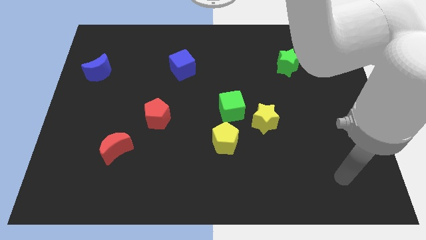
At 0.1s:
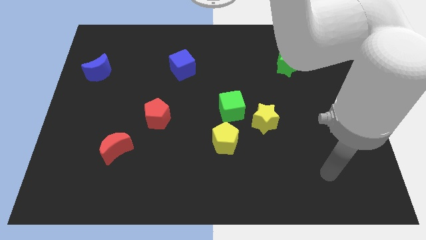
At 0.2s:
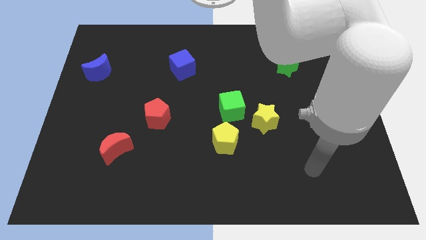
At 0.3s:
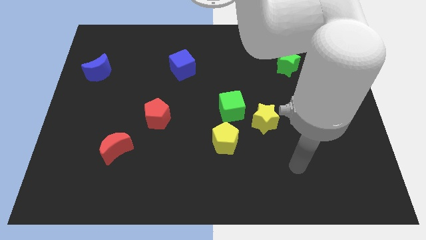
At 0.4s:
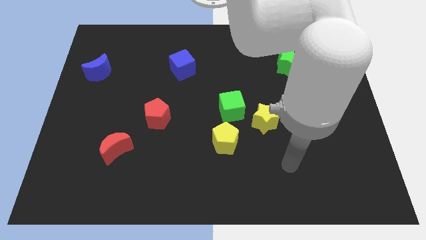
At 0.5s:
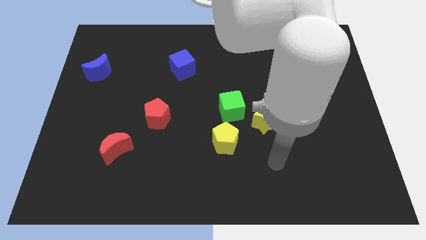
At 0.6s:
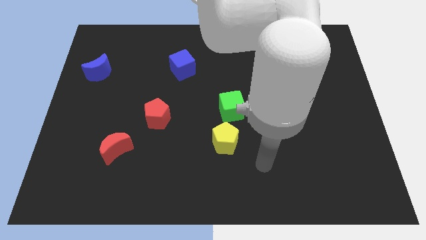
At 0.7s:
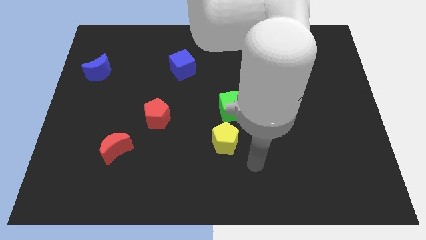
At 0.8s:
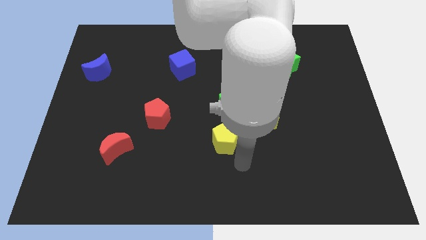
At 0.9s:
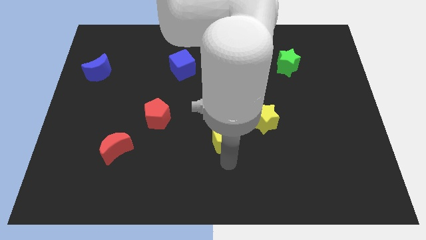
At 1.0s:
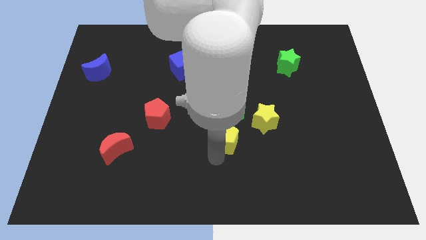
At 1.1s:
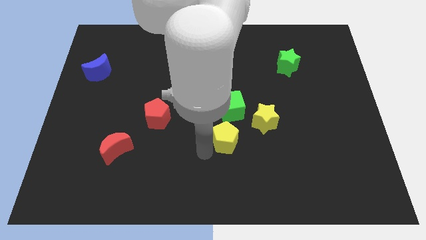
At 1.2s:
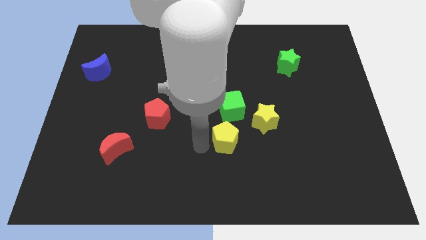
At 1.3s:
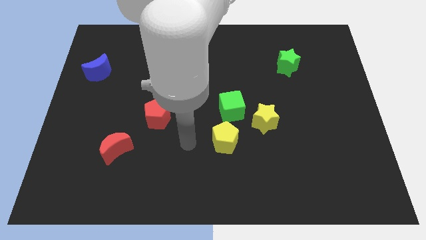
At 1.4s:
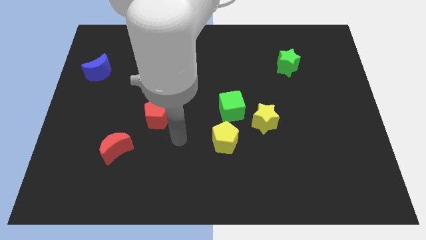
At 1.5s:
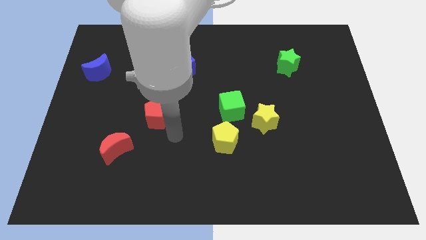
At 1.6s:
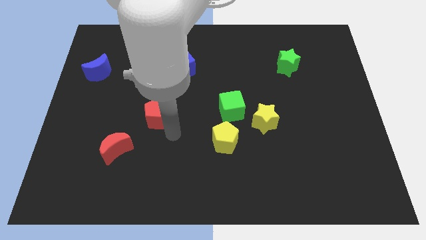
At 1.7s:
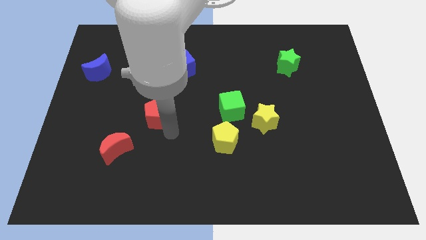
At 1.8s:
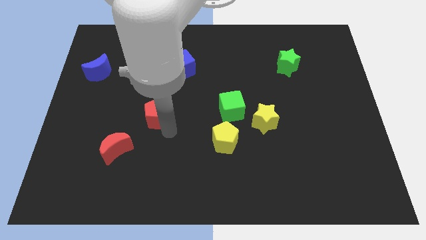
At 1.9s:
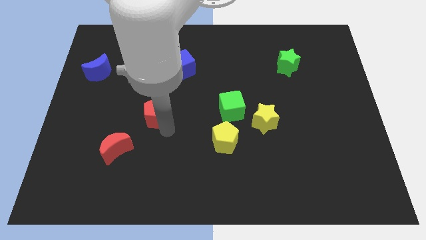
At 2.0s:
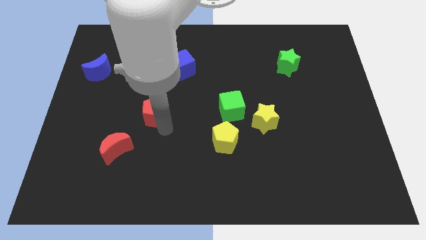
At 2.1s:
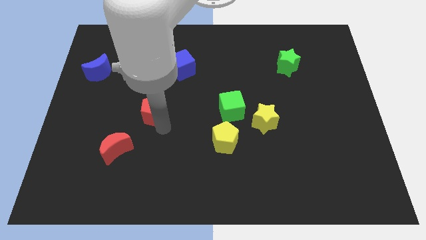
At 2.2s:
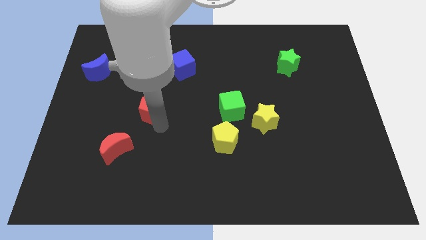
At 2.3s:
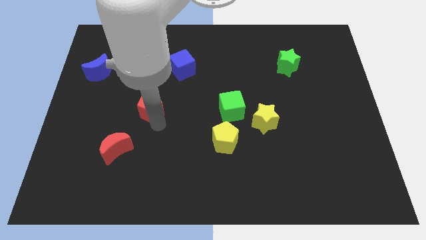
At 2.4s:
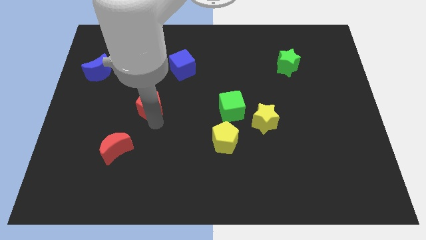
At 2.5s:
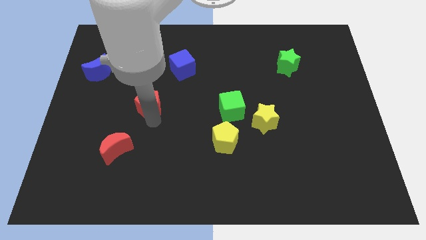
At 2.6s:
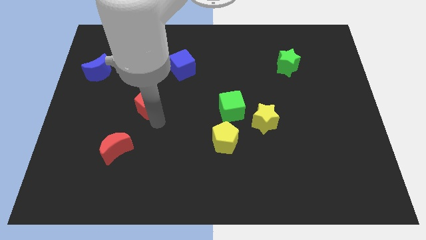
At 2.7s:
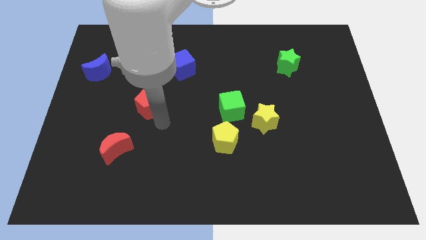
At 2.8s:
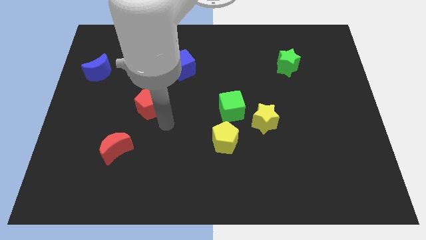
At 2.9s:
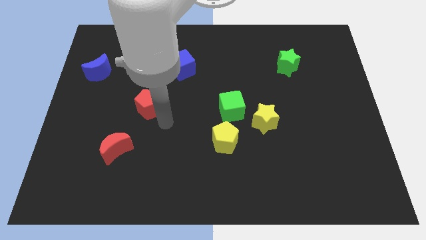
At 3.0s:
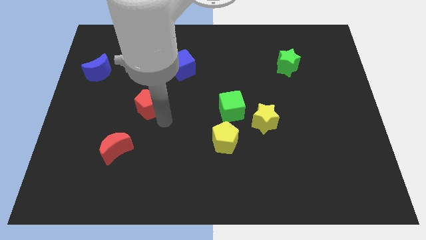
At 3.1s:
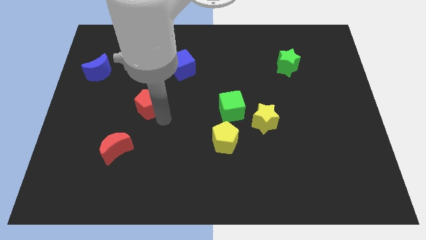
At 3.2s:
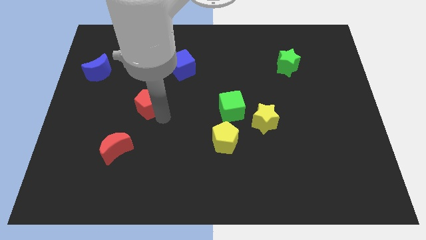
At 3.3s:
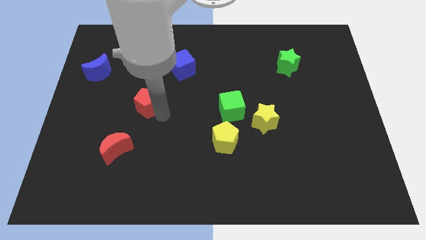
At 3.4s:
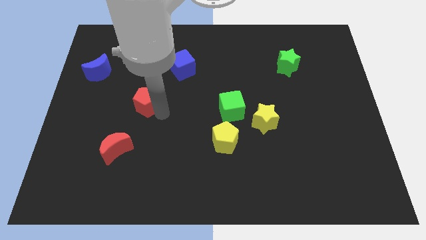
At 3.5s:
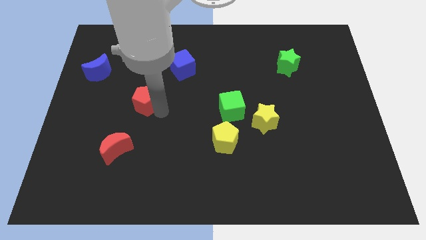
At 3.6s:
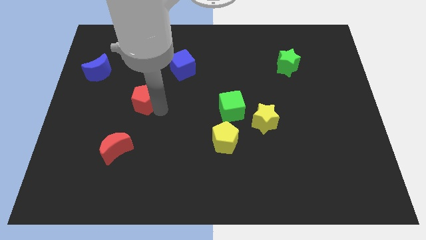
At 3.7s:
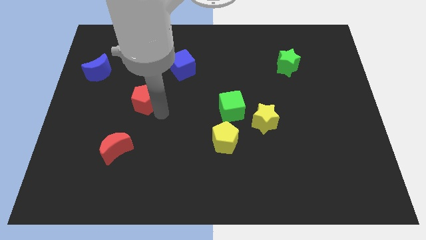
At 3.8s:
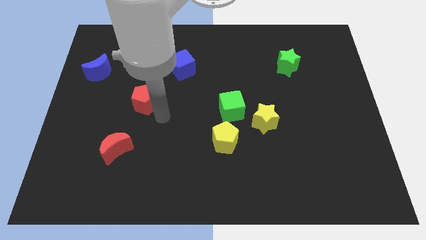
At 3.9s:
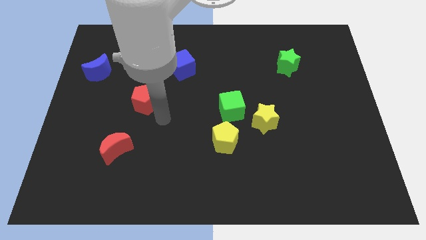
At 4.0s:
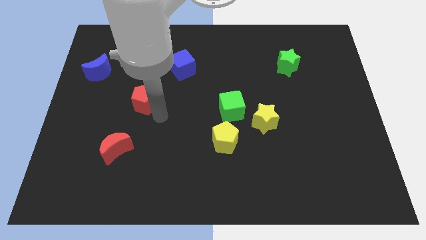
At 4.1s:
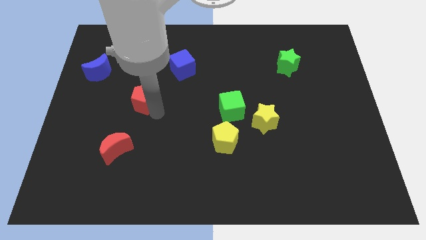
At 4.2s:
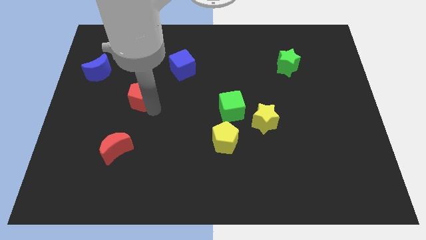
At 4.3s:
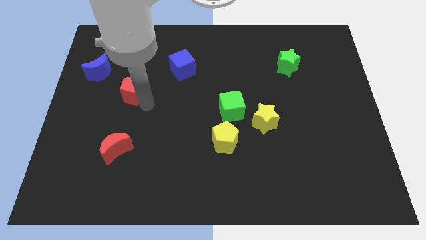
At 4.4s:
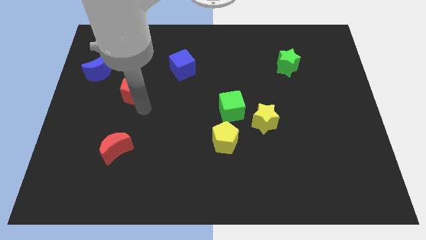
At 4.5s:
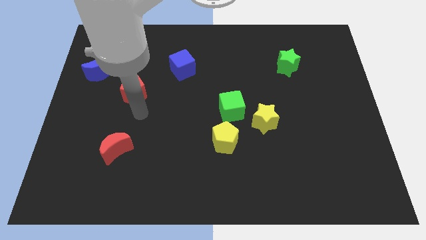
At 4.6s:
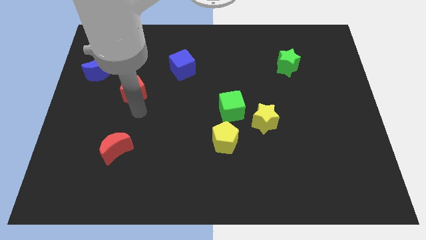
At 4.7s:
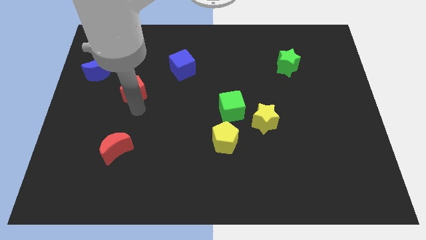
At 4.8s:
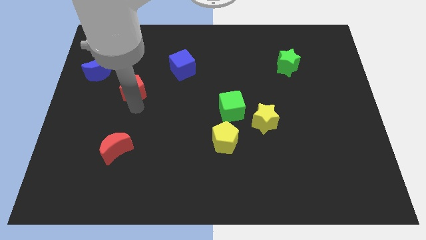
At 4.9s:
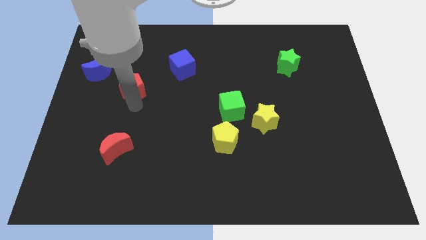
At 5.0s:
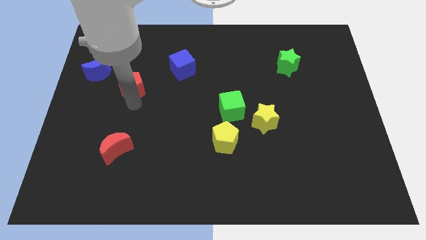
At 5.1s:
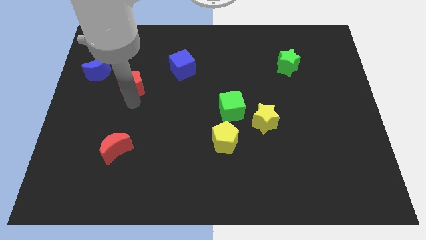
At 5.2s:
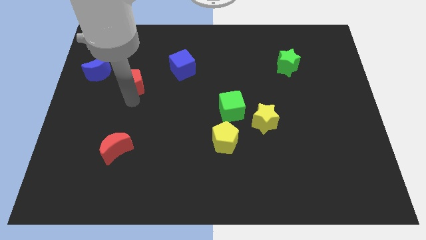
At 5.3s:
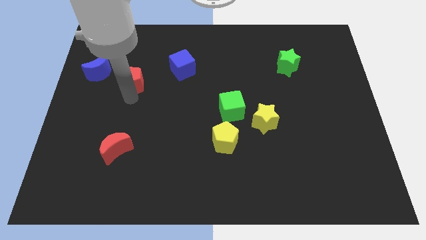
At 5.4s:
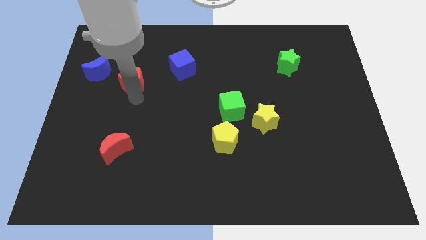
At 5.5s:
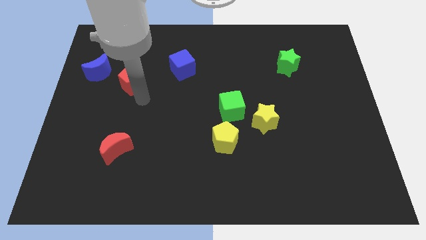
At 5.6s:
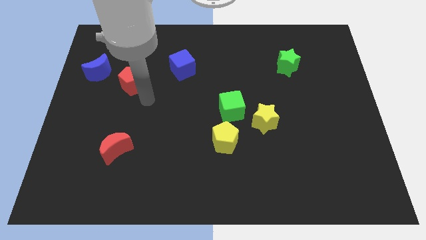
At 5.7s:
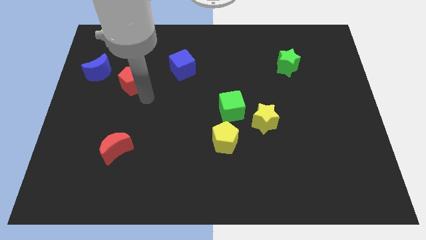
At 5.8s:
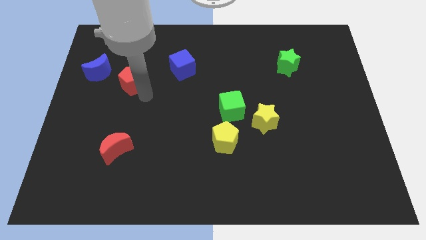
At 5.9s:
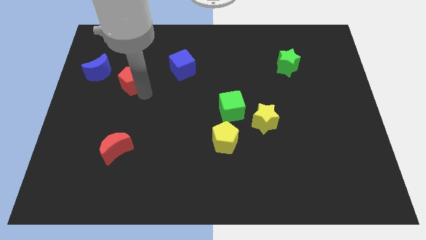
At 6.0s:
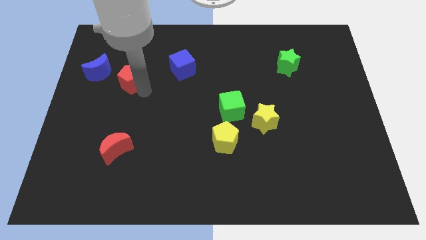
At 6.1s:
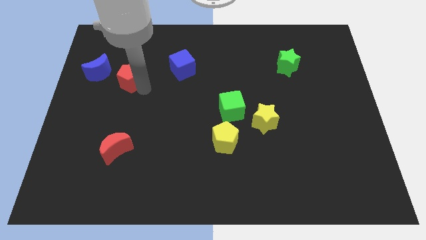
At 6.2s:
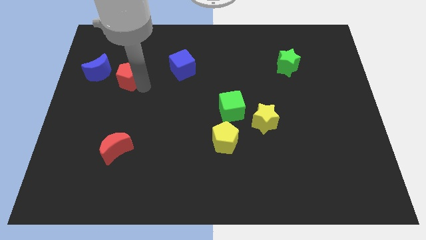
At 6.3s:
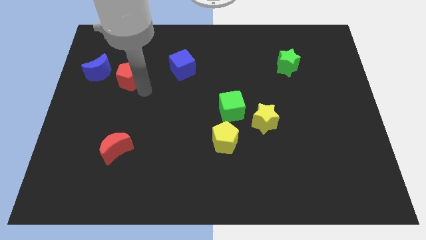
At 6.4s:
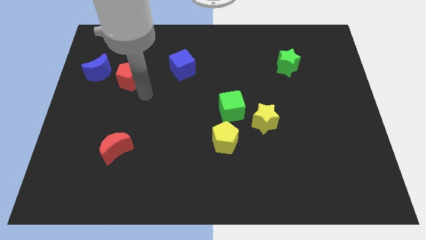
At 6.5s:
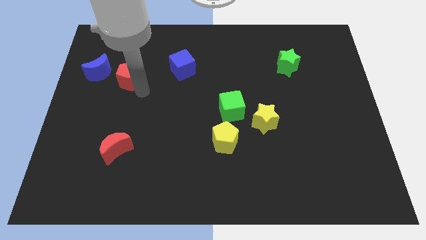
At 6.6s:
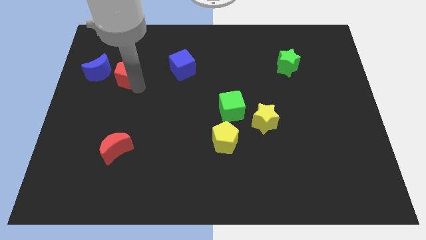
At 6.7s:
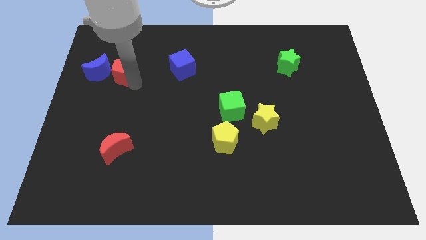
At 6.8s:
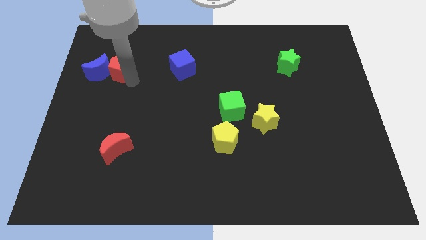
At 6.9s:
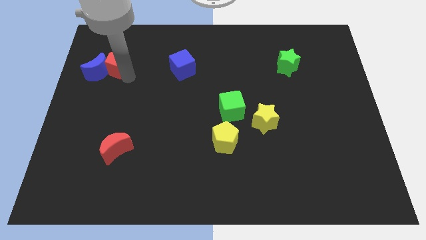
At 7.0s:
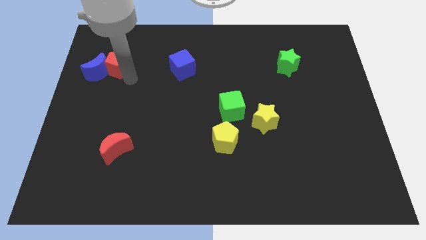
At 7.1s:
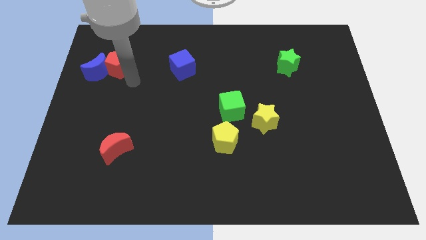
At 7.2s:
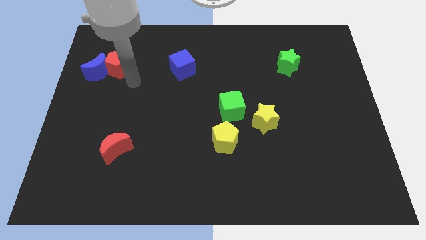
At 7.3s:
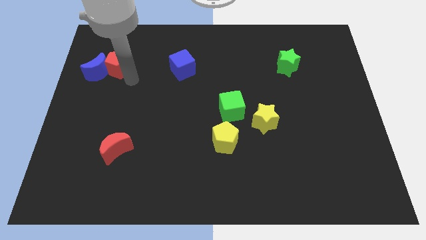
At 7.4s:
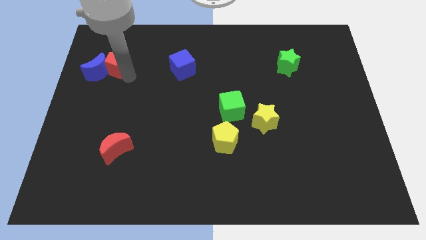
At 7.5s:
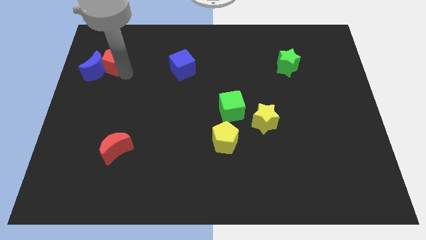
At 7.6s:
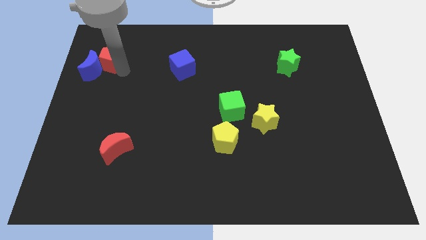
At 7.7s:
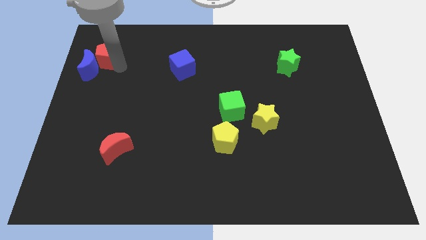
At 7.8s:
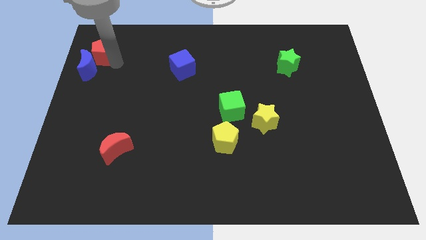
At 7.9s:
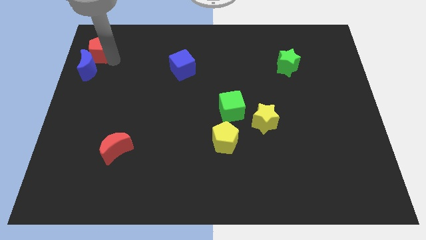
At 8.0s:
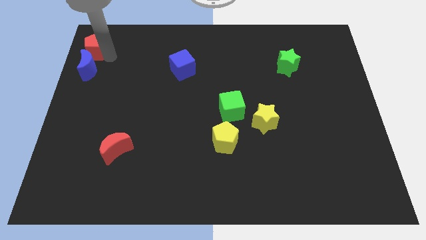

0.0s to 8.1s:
put the red pentagon to the upper left corner
